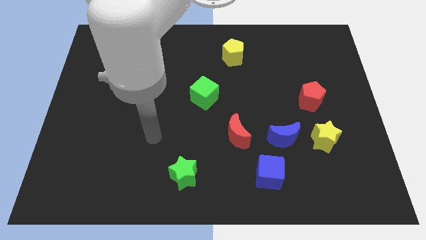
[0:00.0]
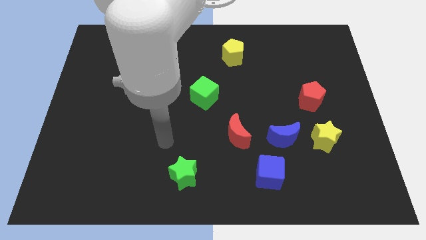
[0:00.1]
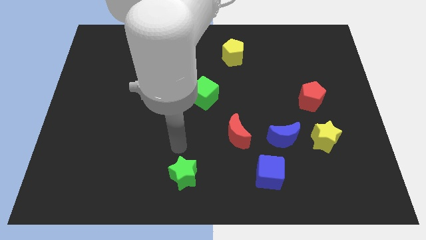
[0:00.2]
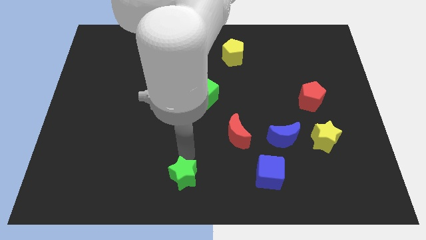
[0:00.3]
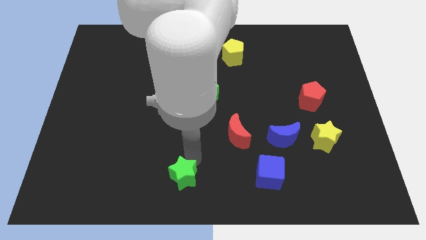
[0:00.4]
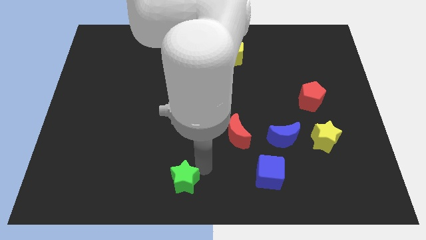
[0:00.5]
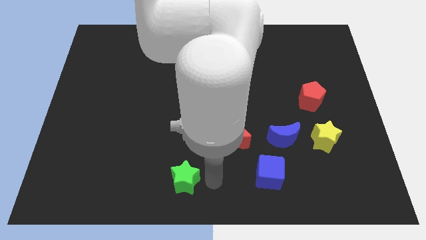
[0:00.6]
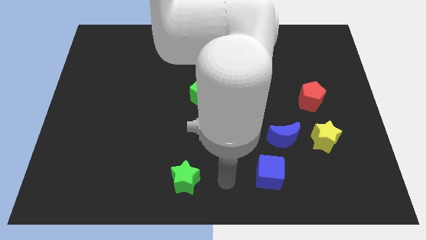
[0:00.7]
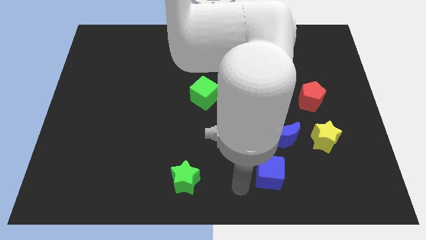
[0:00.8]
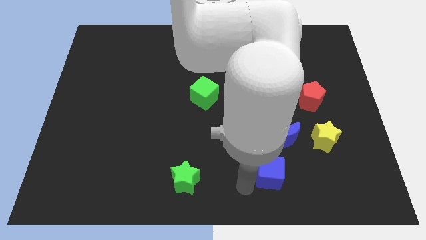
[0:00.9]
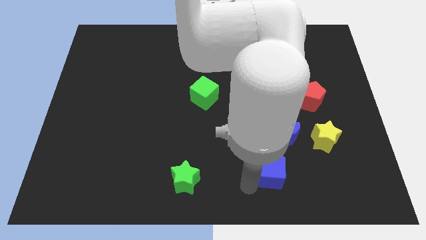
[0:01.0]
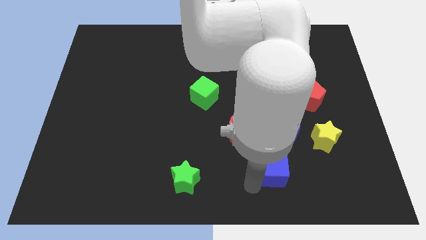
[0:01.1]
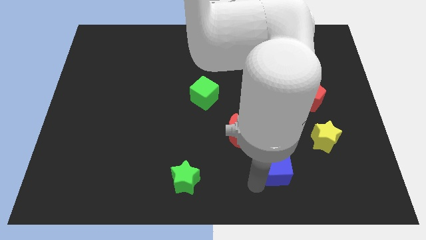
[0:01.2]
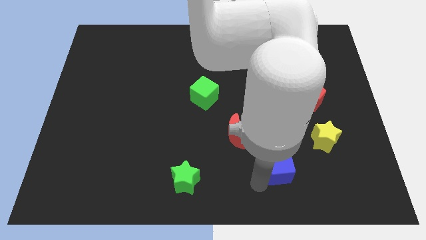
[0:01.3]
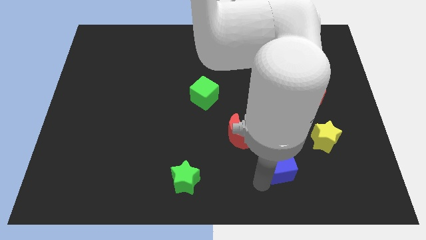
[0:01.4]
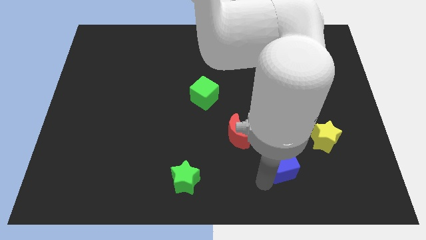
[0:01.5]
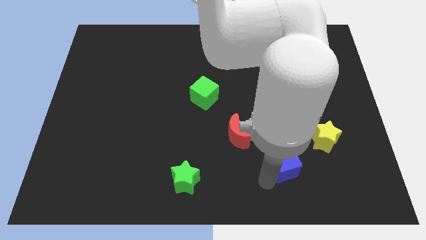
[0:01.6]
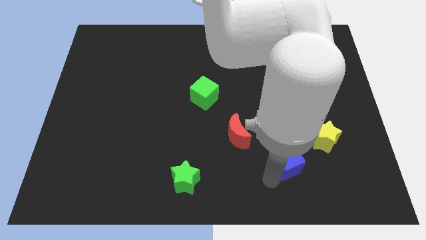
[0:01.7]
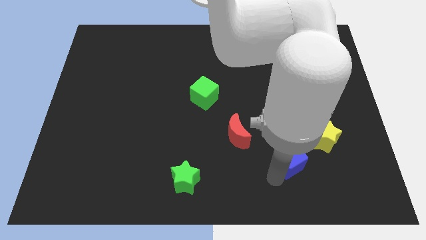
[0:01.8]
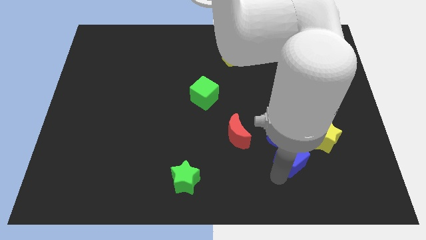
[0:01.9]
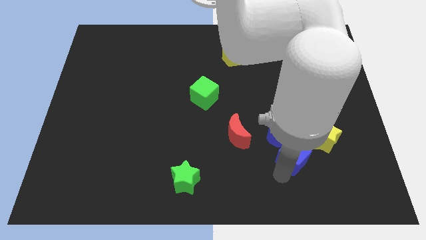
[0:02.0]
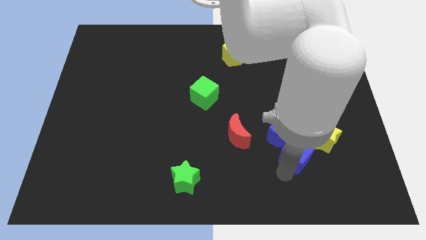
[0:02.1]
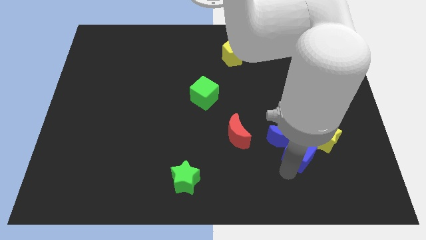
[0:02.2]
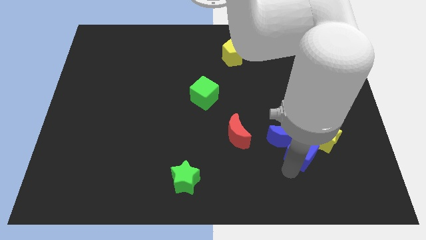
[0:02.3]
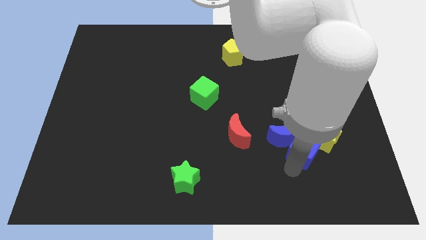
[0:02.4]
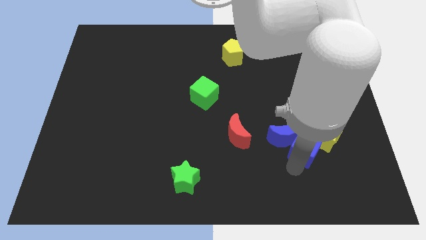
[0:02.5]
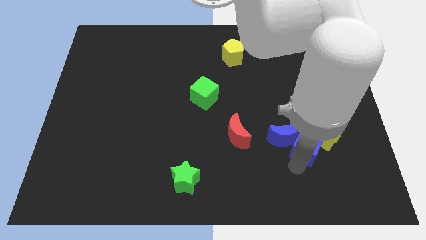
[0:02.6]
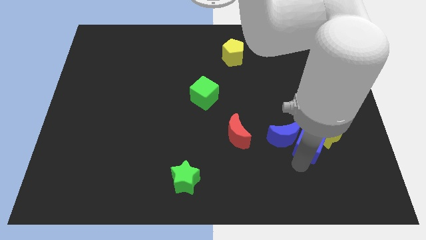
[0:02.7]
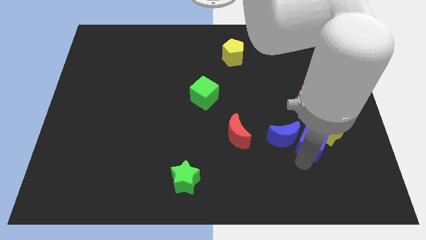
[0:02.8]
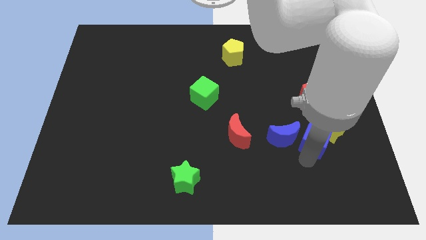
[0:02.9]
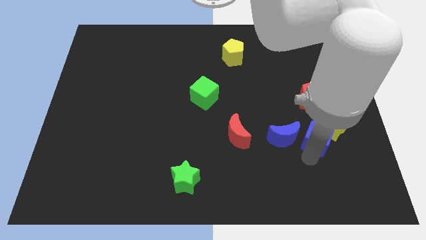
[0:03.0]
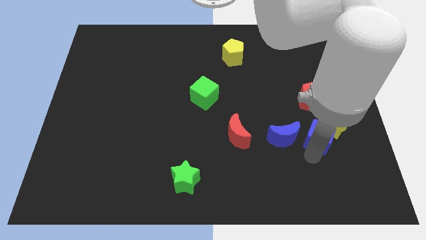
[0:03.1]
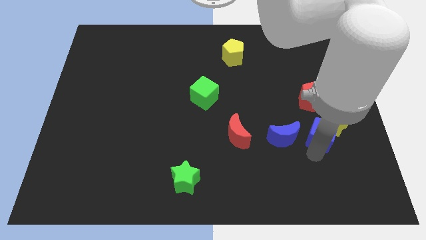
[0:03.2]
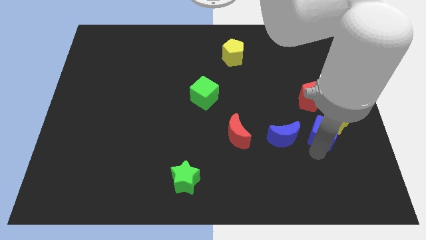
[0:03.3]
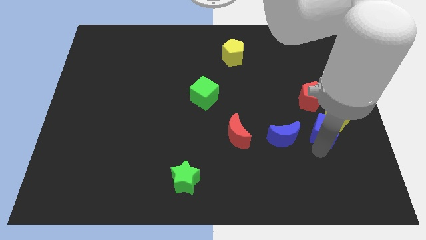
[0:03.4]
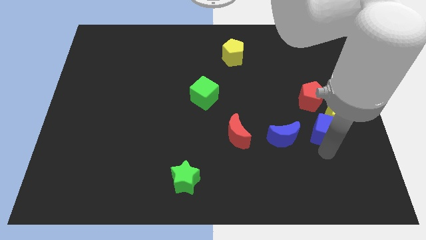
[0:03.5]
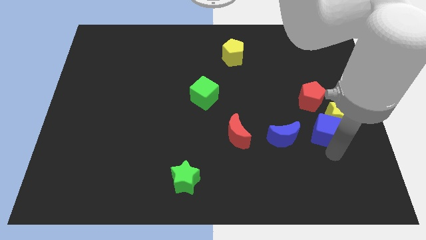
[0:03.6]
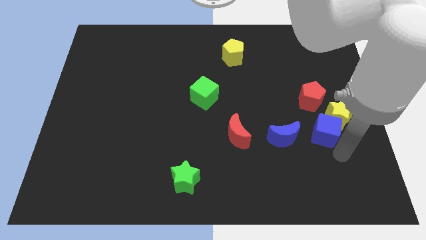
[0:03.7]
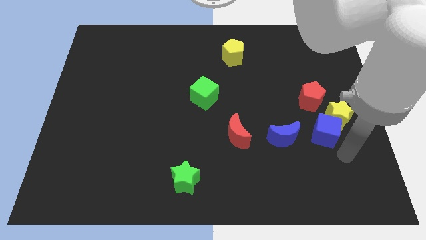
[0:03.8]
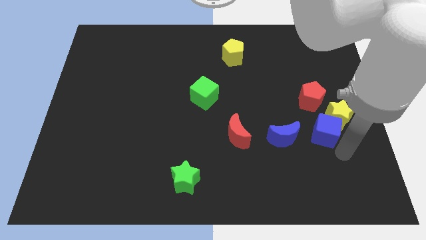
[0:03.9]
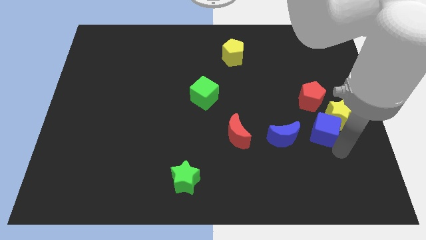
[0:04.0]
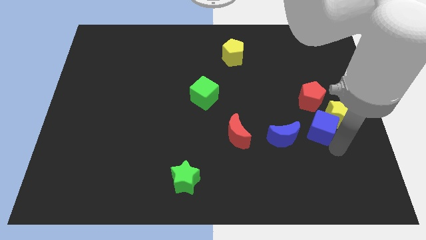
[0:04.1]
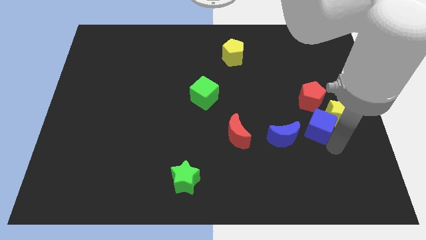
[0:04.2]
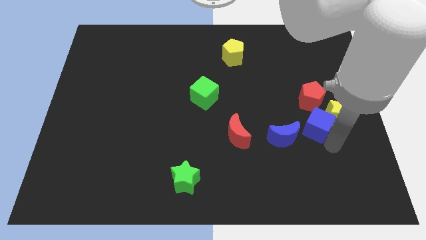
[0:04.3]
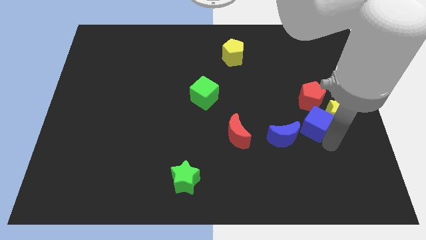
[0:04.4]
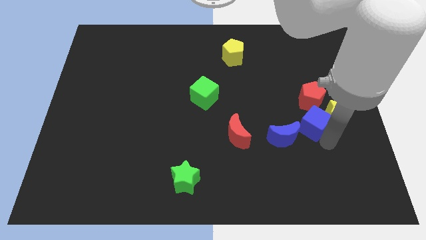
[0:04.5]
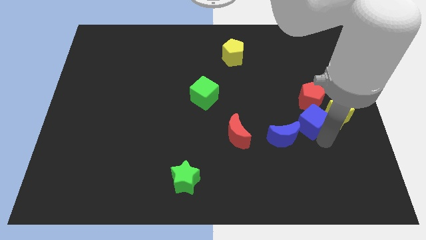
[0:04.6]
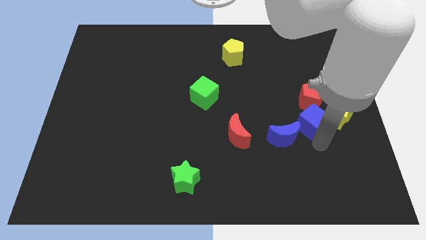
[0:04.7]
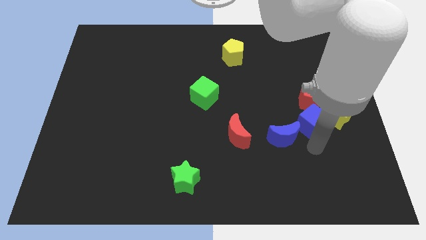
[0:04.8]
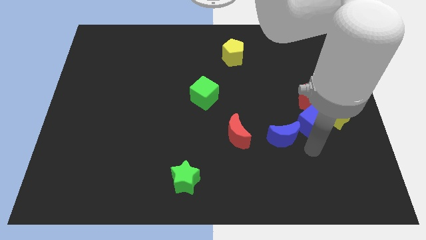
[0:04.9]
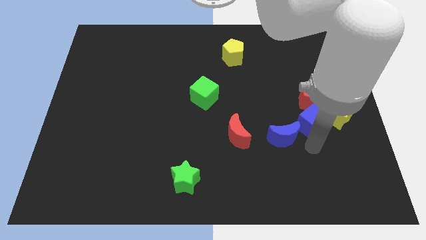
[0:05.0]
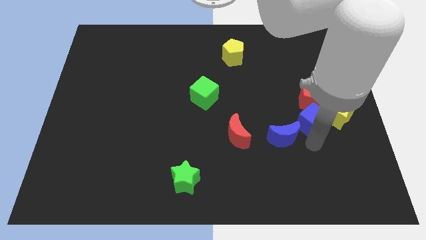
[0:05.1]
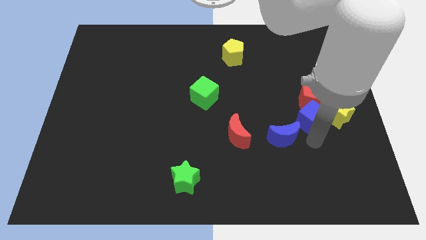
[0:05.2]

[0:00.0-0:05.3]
push the blue cube to the red pentagon

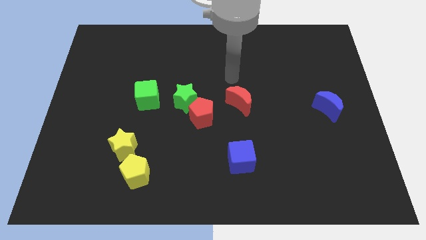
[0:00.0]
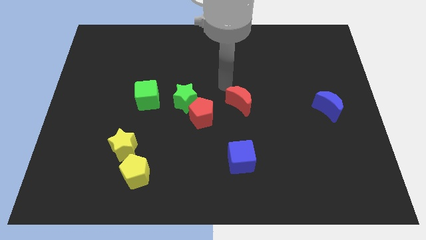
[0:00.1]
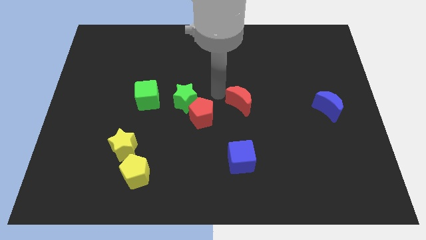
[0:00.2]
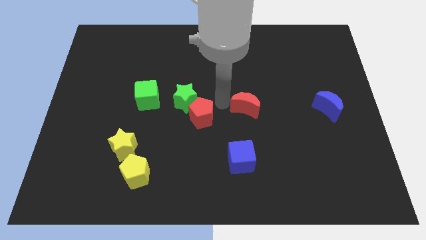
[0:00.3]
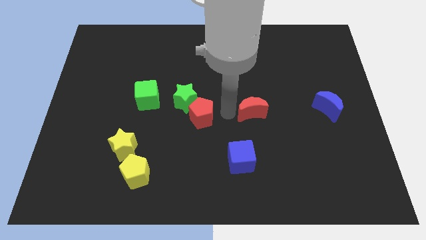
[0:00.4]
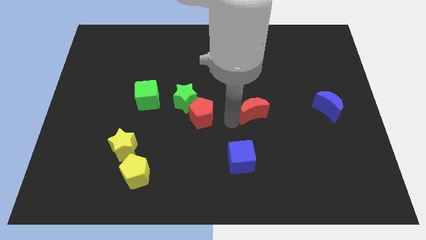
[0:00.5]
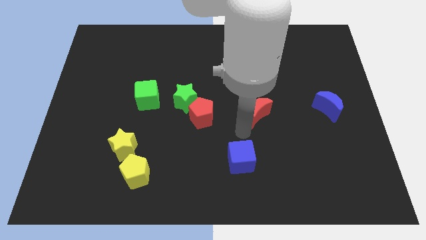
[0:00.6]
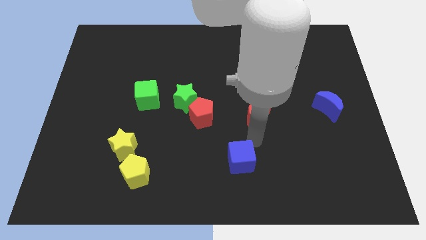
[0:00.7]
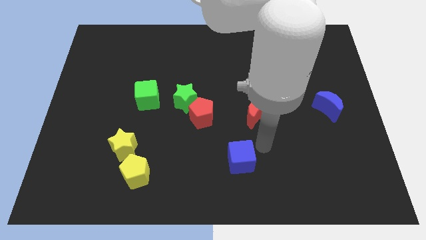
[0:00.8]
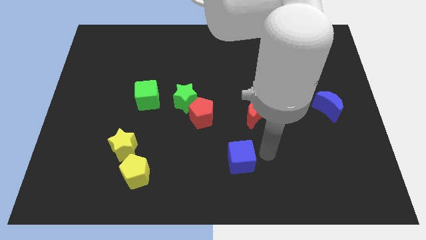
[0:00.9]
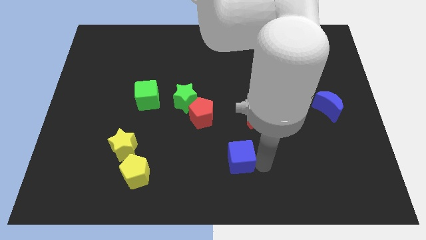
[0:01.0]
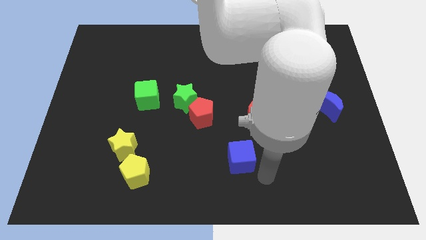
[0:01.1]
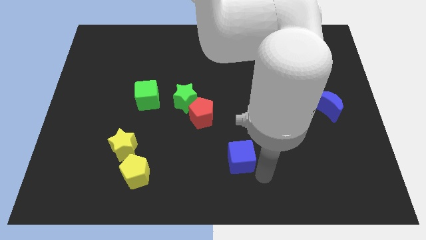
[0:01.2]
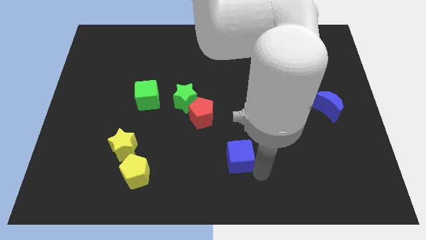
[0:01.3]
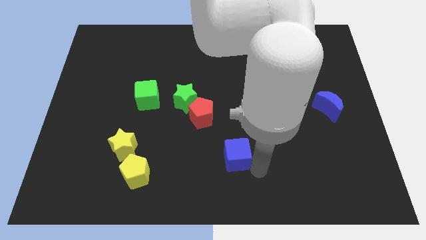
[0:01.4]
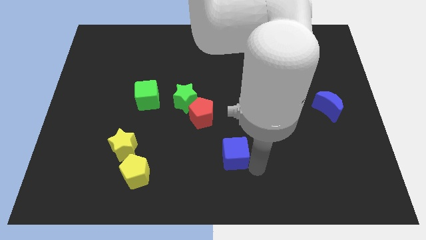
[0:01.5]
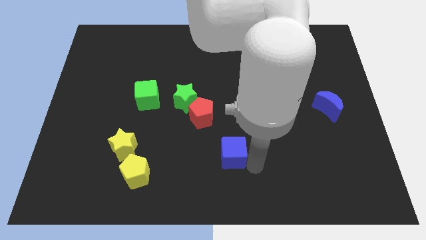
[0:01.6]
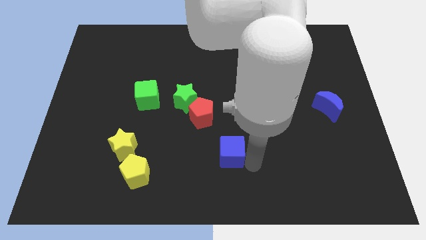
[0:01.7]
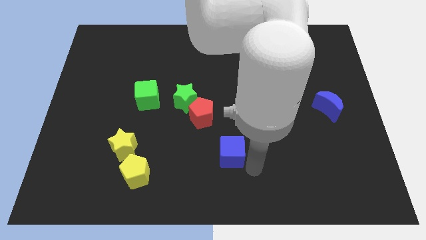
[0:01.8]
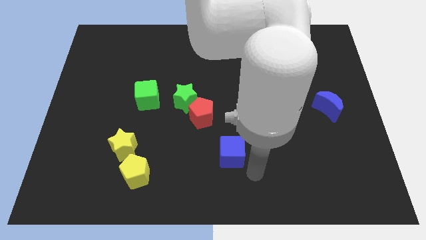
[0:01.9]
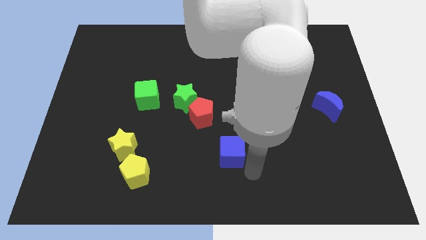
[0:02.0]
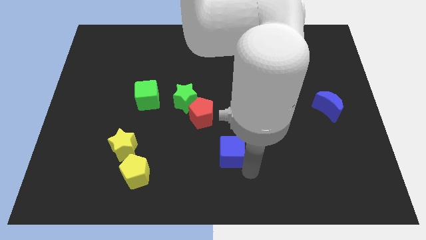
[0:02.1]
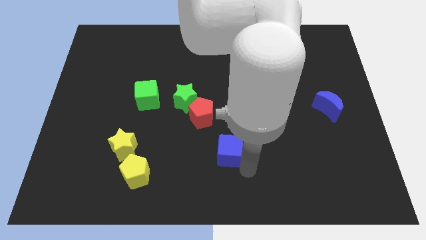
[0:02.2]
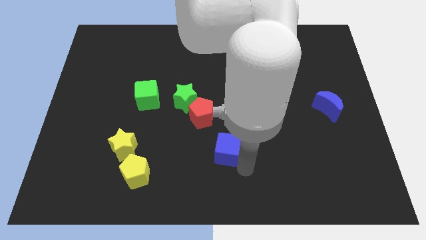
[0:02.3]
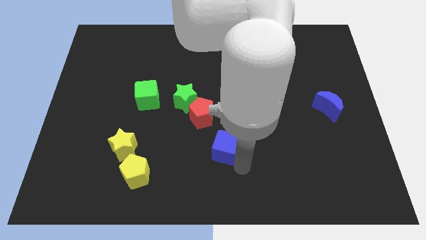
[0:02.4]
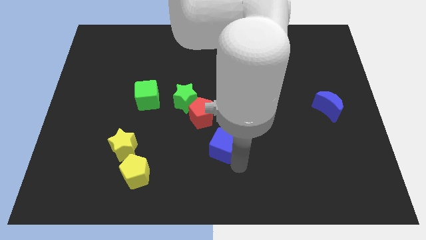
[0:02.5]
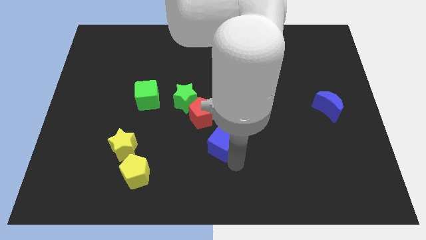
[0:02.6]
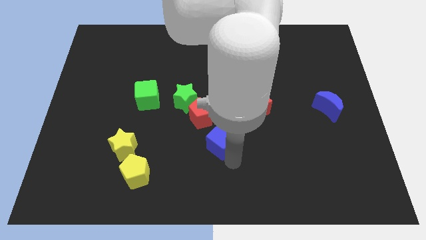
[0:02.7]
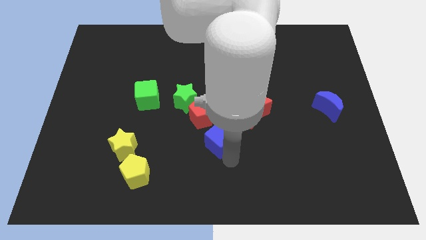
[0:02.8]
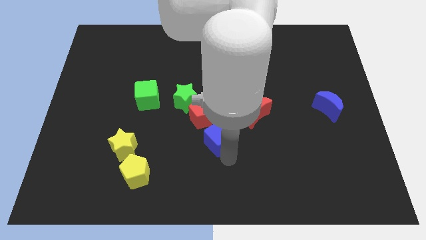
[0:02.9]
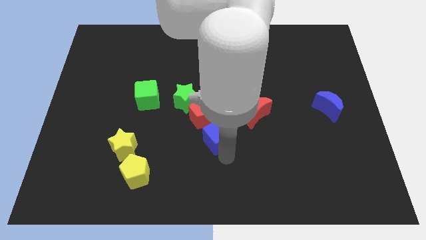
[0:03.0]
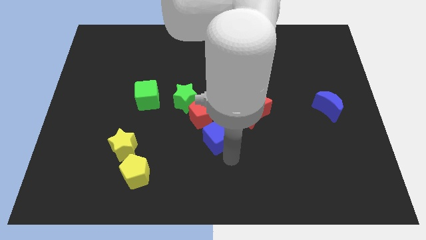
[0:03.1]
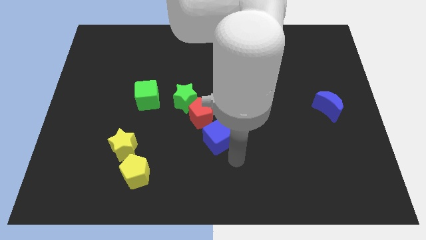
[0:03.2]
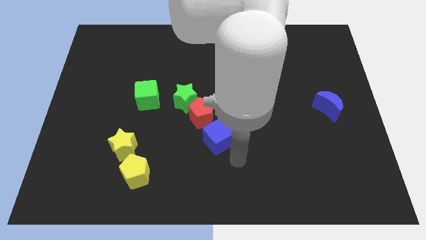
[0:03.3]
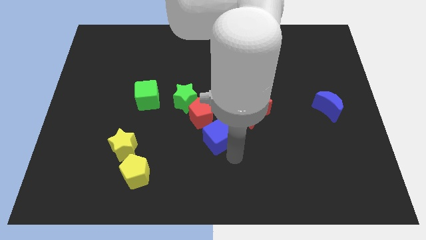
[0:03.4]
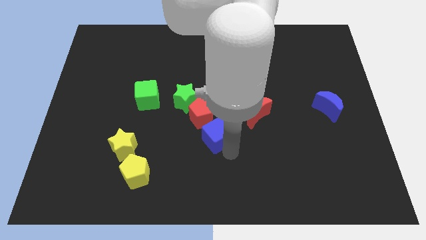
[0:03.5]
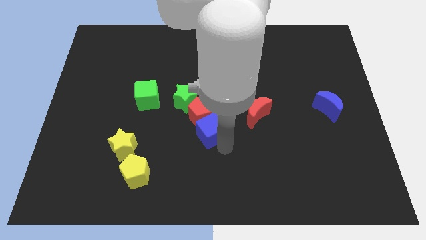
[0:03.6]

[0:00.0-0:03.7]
put the blue cube to the red pentagon
